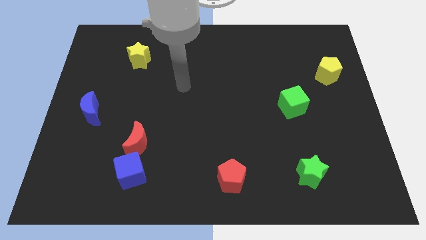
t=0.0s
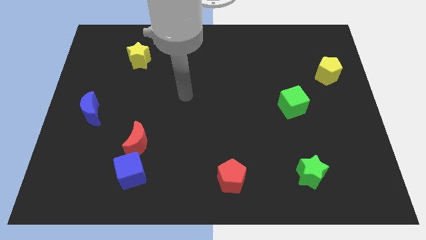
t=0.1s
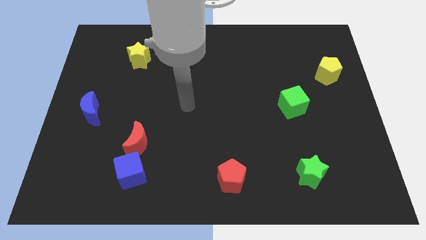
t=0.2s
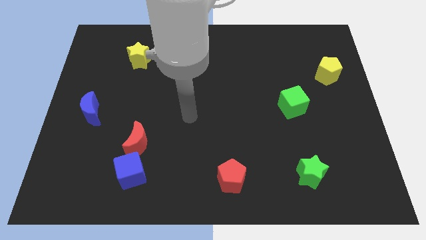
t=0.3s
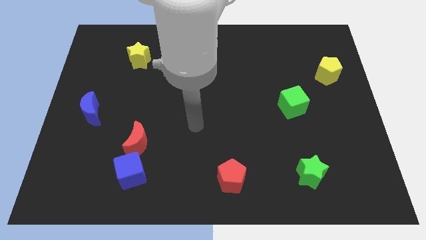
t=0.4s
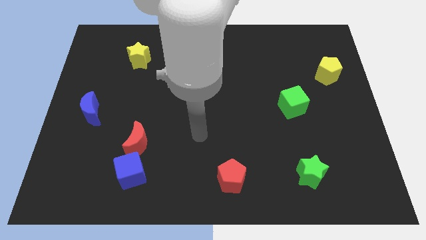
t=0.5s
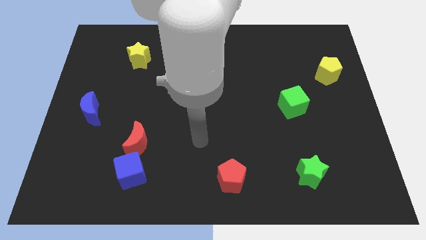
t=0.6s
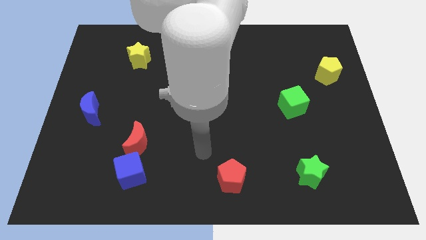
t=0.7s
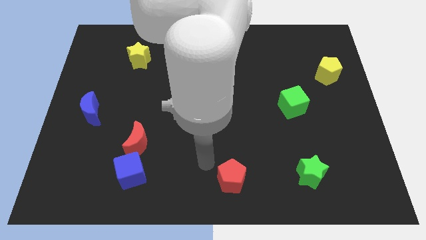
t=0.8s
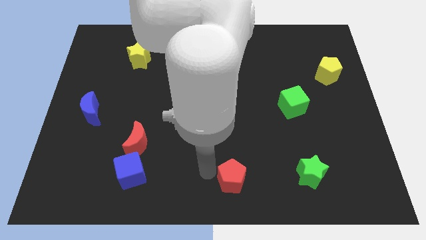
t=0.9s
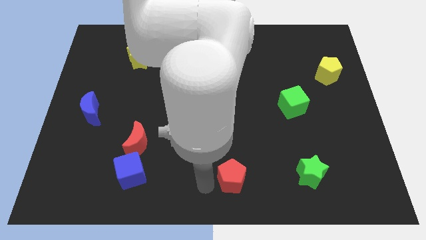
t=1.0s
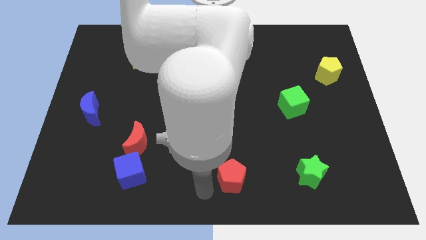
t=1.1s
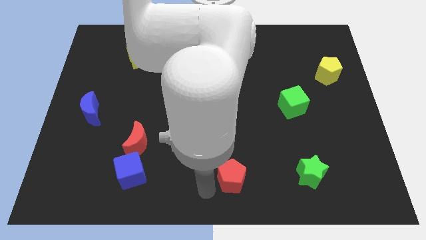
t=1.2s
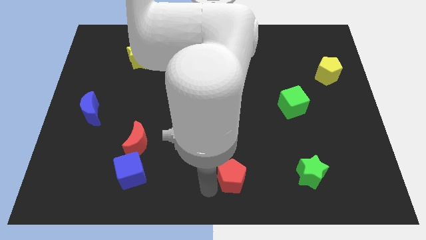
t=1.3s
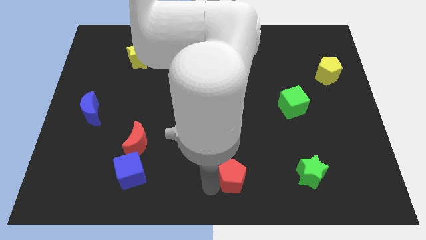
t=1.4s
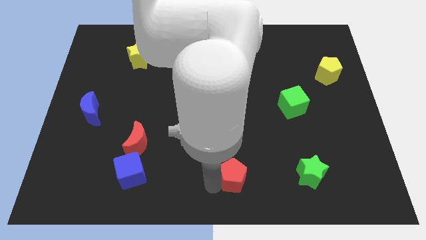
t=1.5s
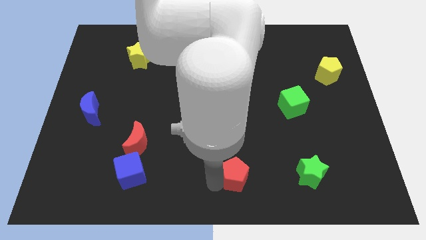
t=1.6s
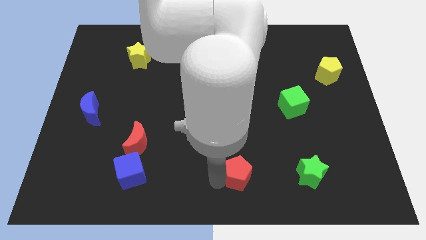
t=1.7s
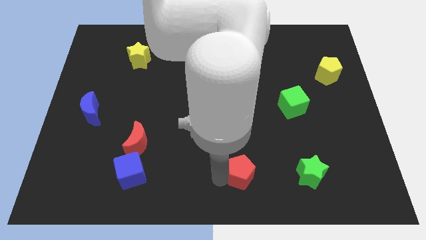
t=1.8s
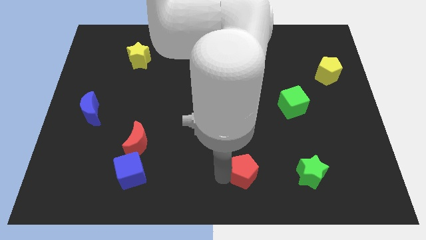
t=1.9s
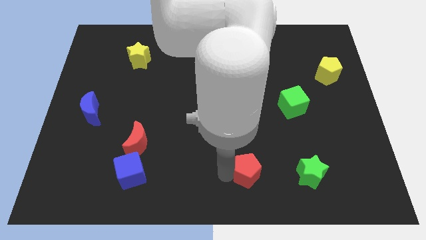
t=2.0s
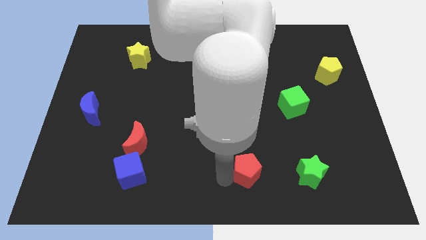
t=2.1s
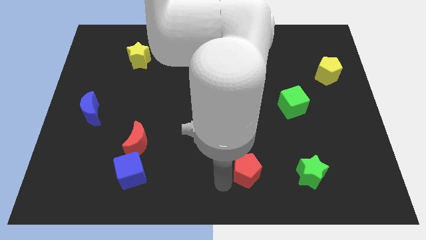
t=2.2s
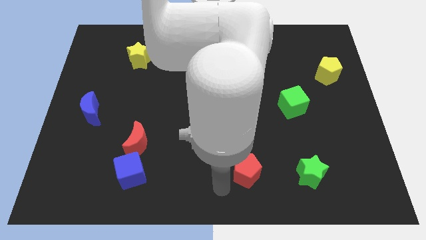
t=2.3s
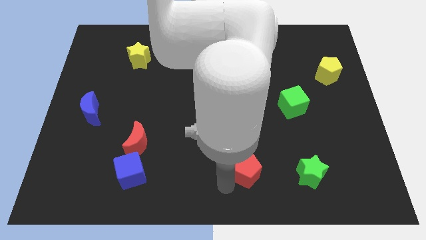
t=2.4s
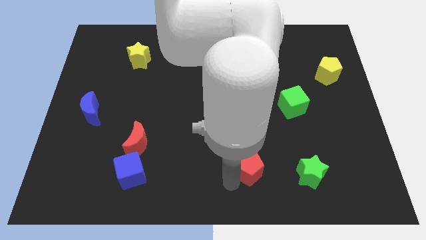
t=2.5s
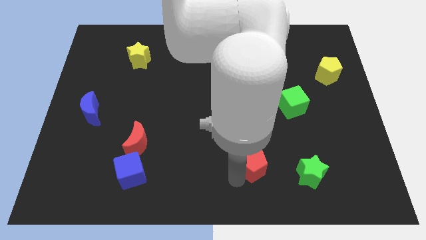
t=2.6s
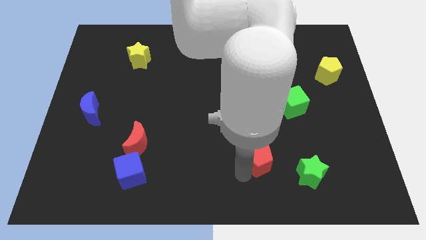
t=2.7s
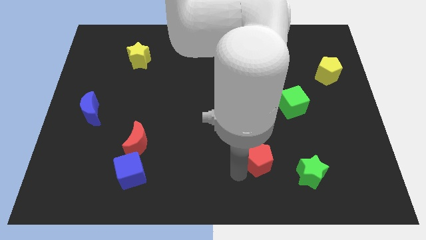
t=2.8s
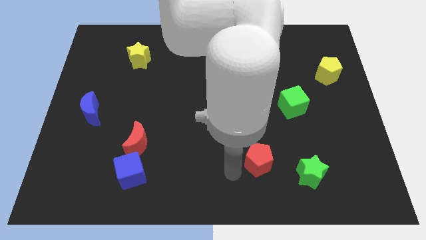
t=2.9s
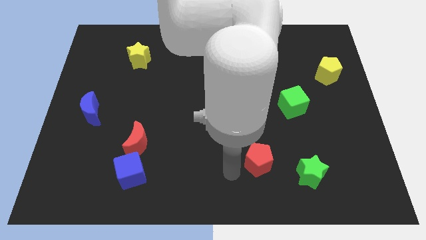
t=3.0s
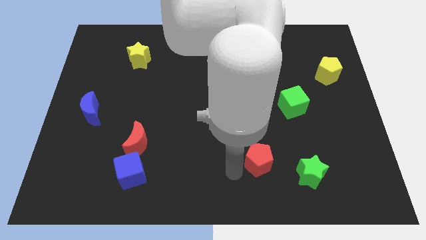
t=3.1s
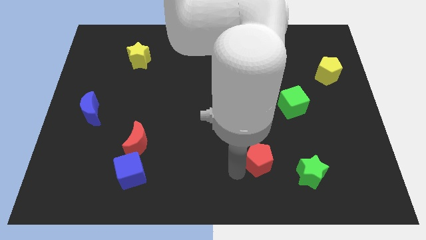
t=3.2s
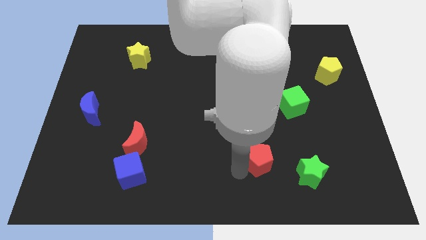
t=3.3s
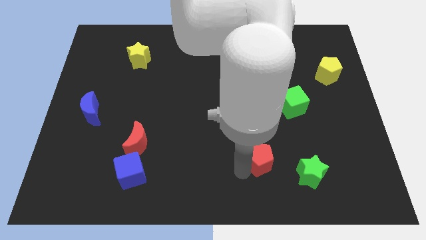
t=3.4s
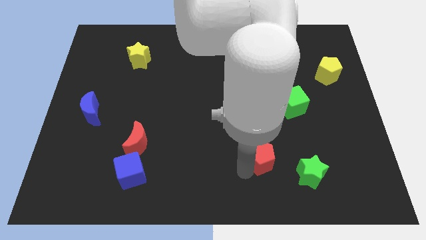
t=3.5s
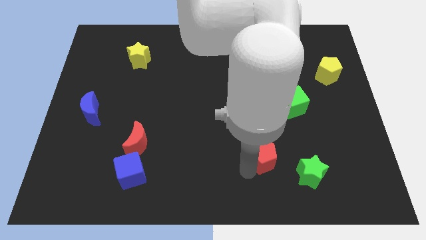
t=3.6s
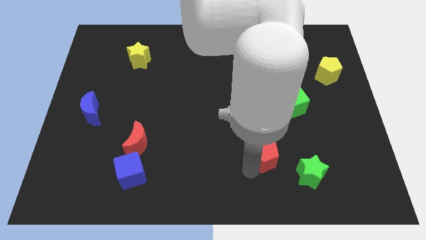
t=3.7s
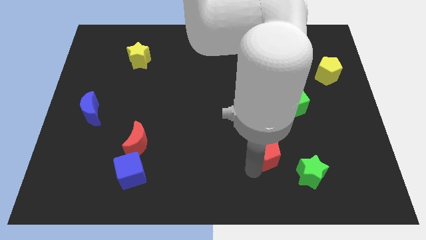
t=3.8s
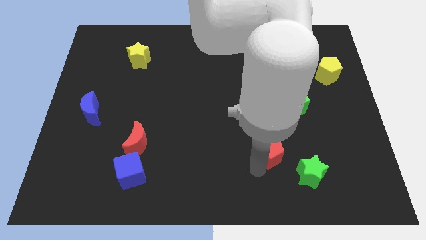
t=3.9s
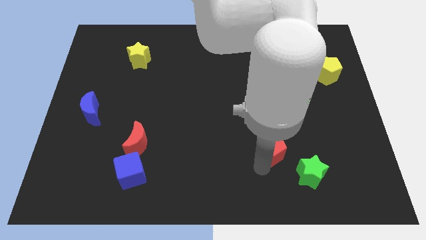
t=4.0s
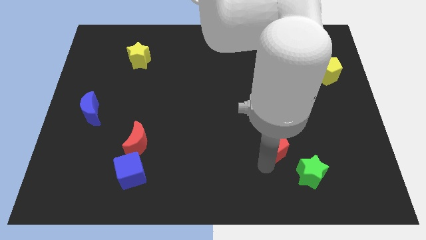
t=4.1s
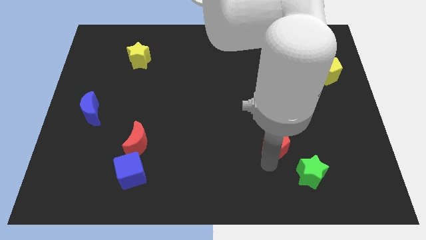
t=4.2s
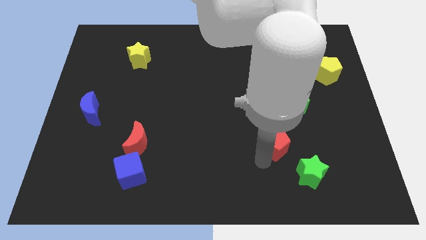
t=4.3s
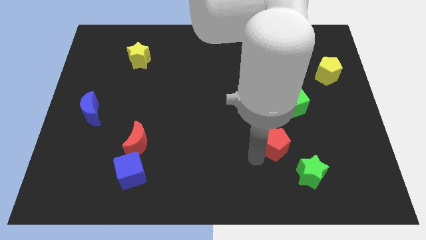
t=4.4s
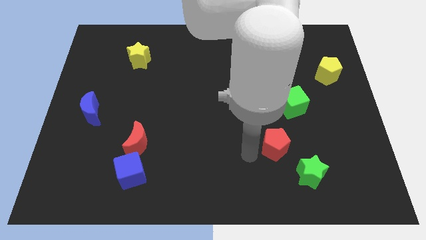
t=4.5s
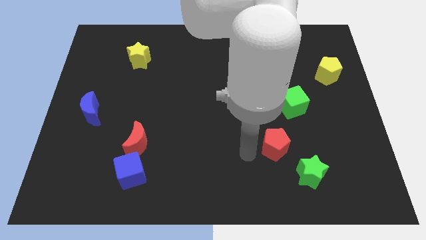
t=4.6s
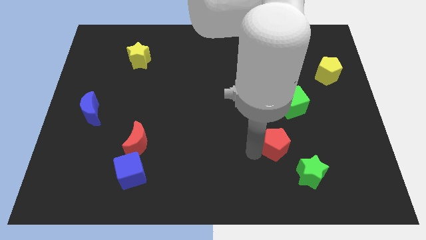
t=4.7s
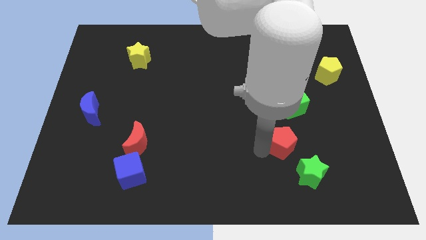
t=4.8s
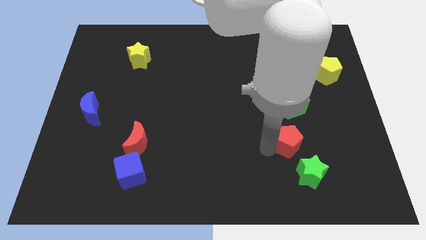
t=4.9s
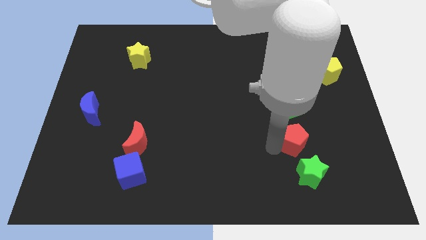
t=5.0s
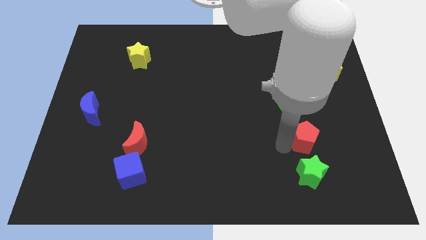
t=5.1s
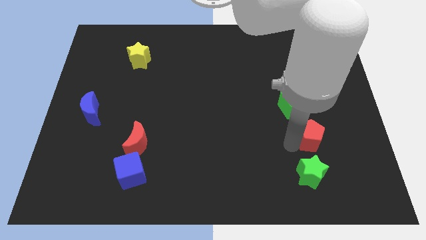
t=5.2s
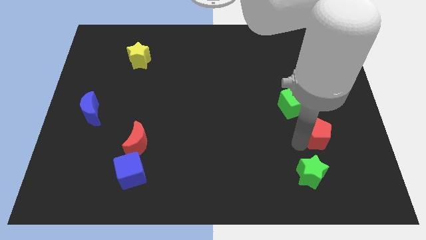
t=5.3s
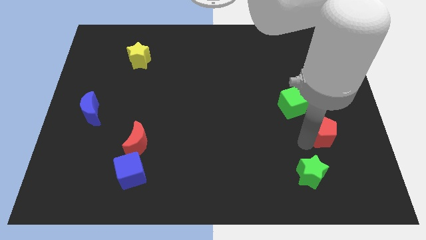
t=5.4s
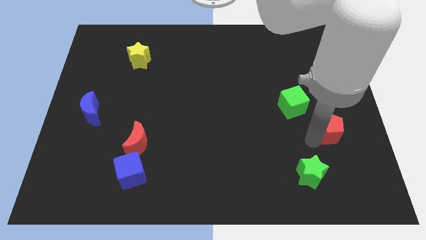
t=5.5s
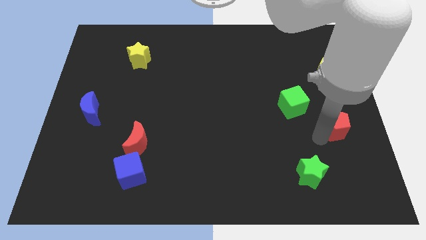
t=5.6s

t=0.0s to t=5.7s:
put the red pentagon to the right side

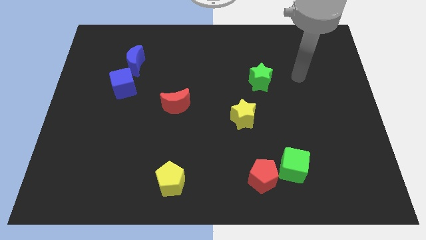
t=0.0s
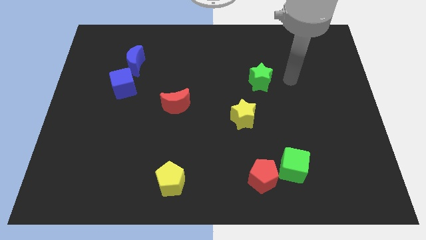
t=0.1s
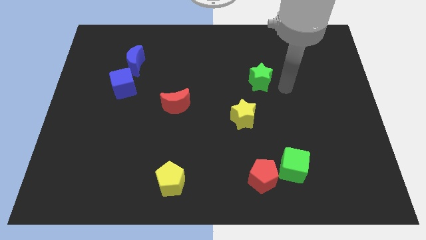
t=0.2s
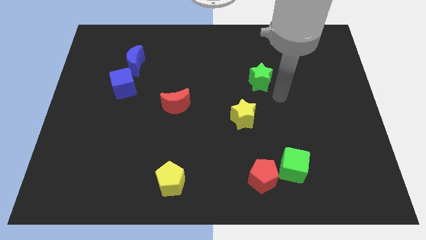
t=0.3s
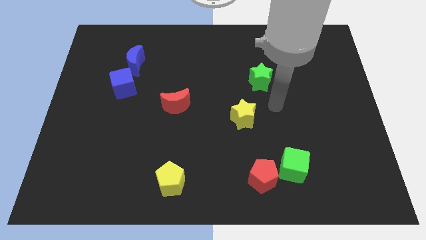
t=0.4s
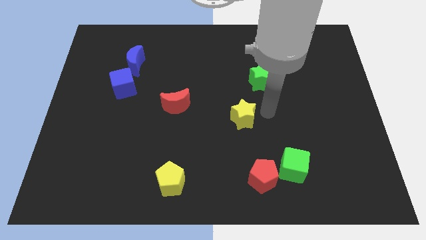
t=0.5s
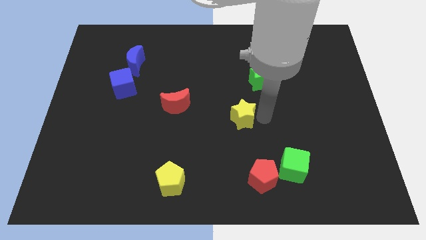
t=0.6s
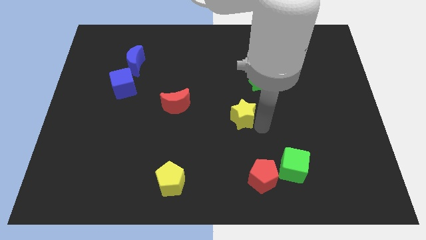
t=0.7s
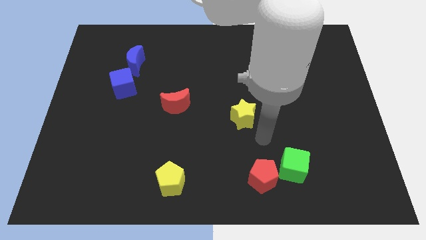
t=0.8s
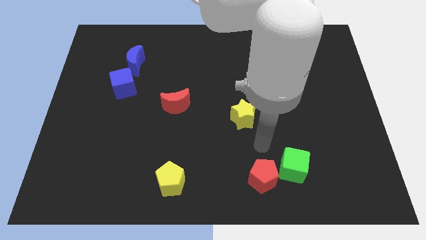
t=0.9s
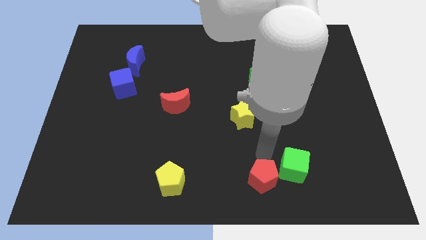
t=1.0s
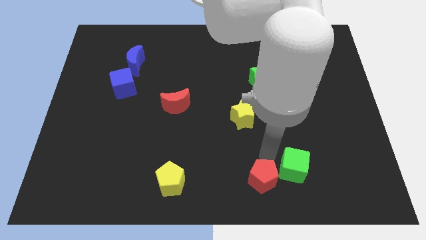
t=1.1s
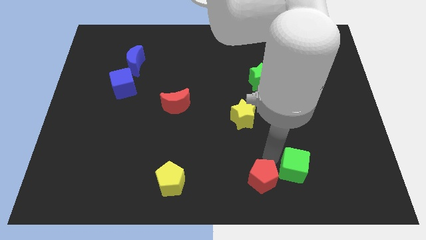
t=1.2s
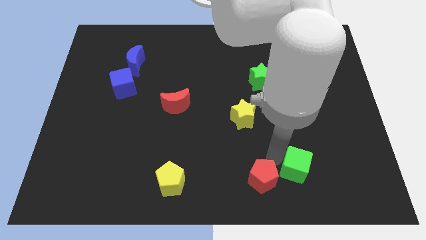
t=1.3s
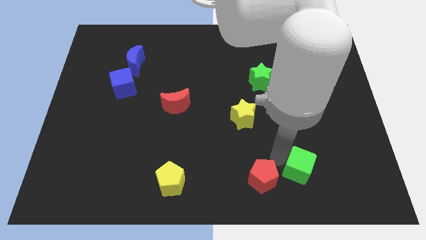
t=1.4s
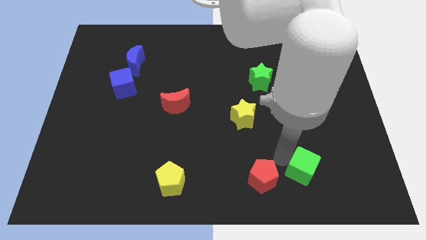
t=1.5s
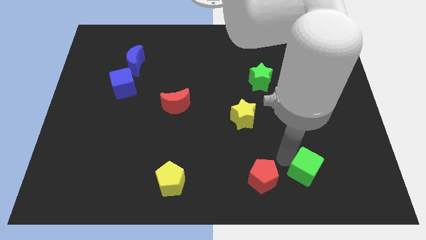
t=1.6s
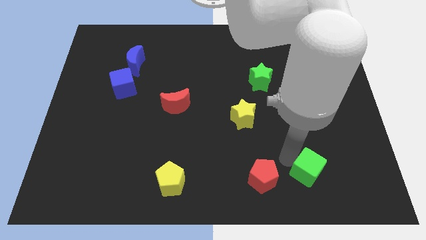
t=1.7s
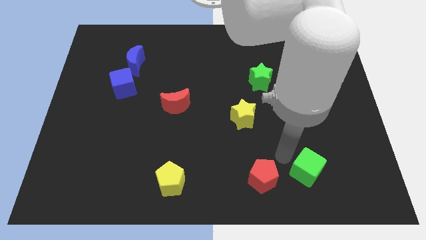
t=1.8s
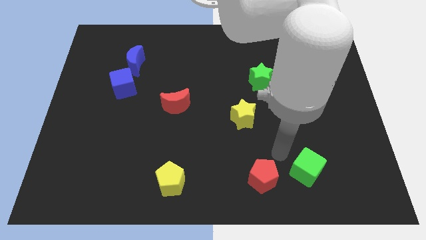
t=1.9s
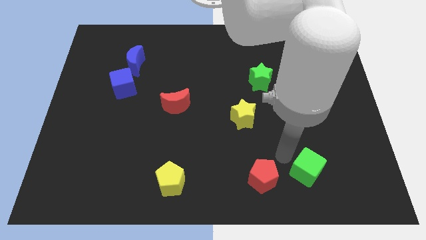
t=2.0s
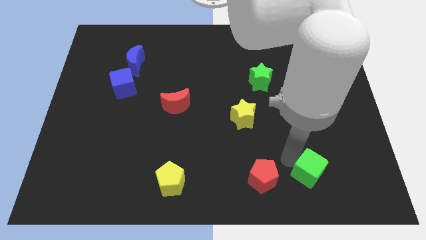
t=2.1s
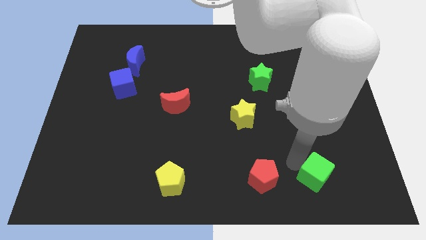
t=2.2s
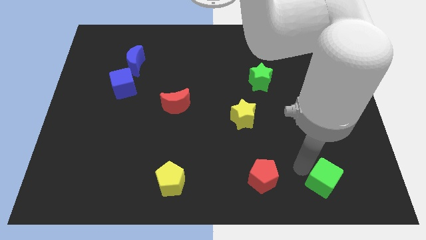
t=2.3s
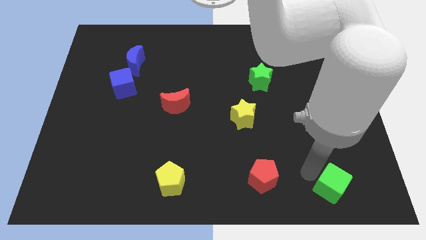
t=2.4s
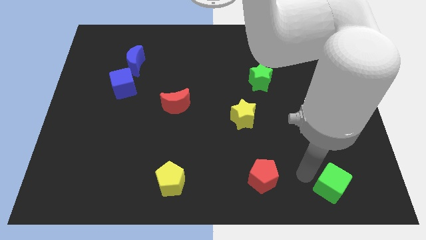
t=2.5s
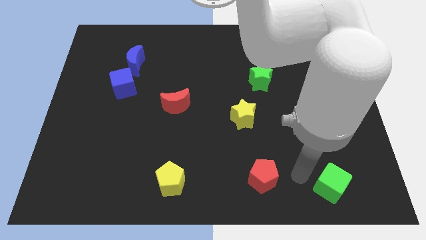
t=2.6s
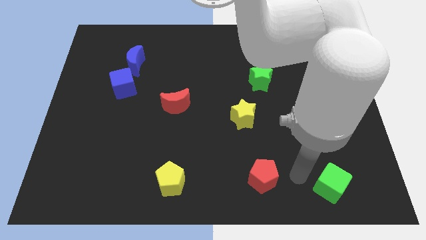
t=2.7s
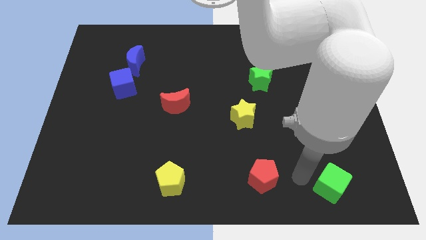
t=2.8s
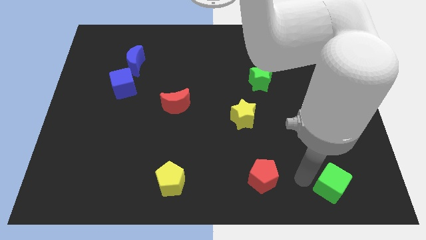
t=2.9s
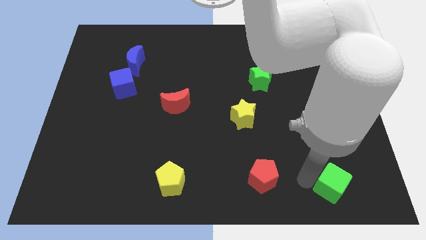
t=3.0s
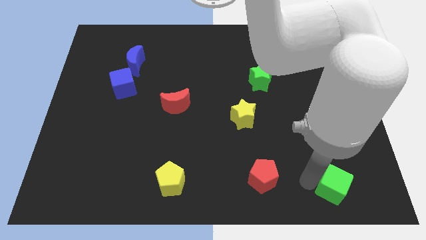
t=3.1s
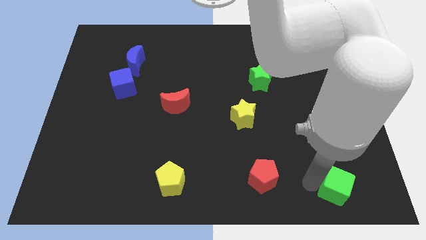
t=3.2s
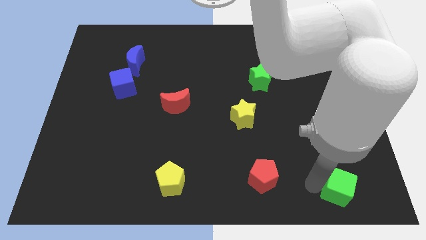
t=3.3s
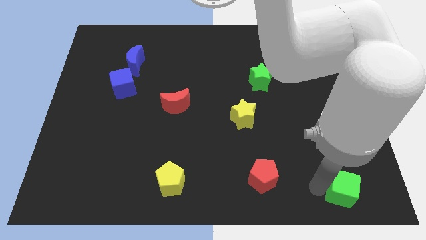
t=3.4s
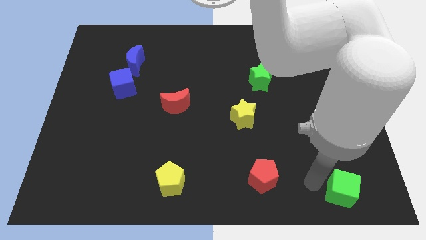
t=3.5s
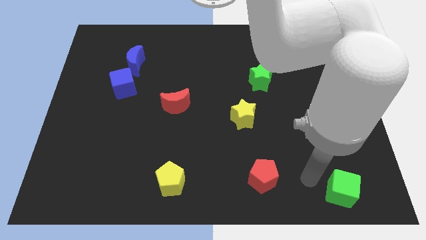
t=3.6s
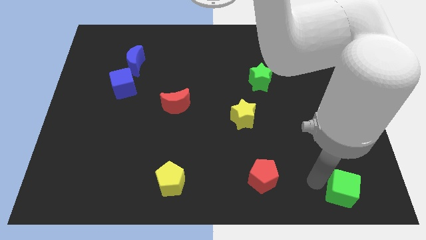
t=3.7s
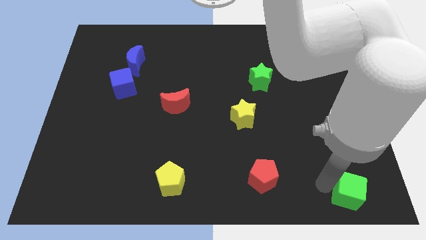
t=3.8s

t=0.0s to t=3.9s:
move the green cube to the bottom right
